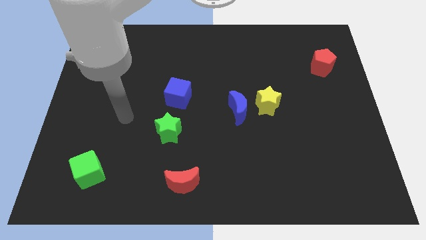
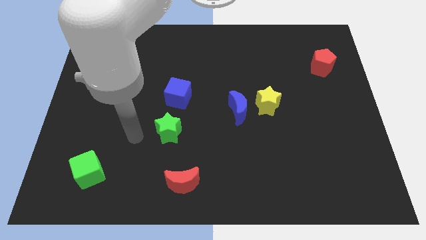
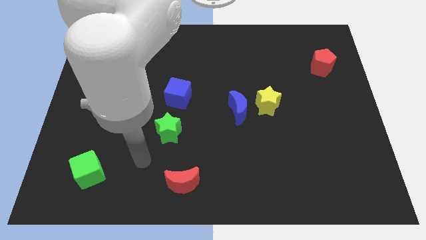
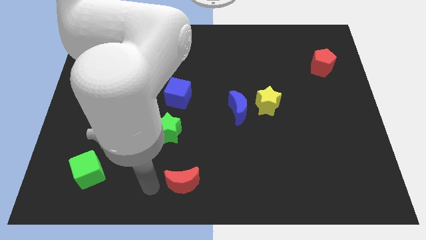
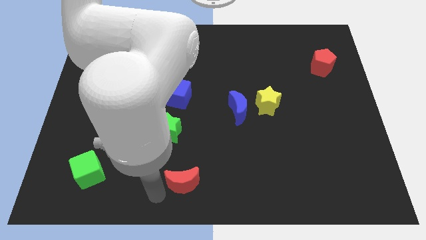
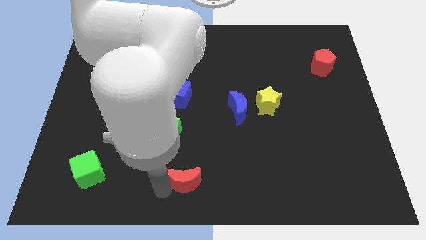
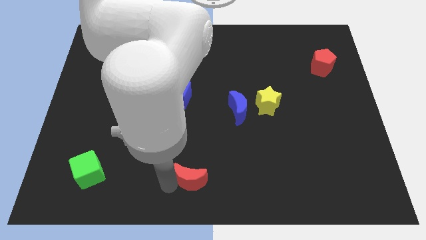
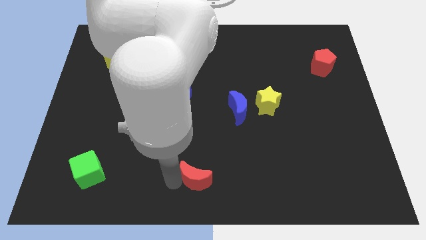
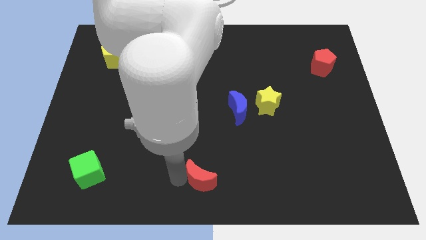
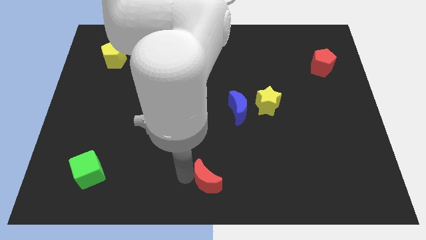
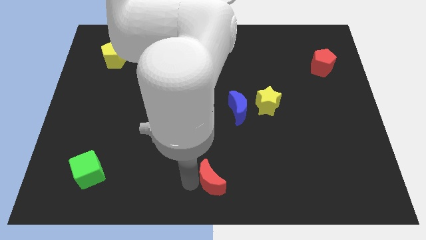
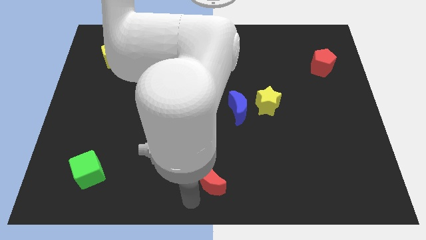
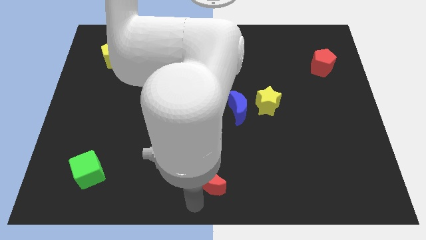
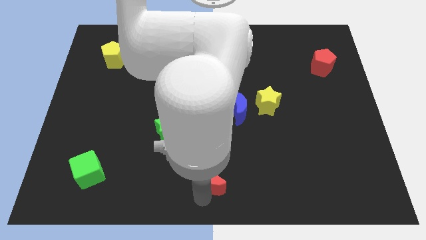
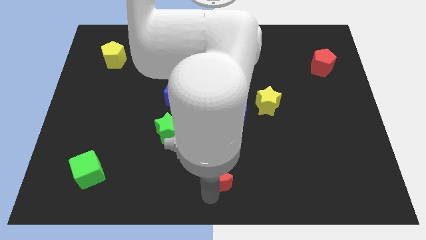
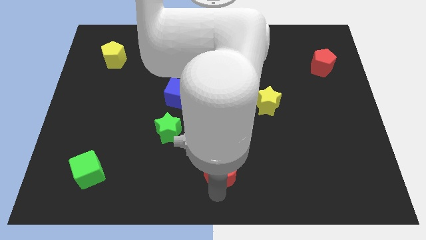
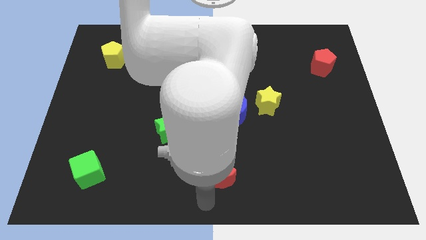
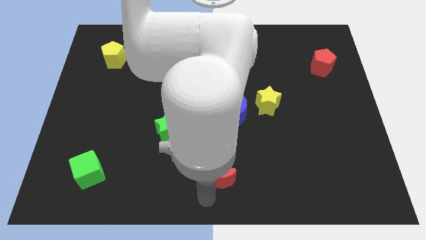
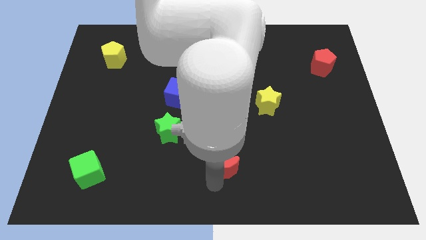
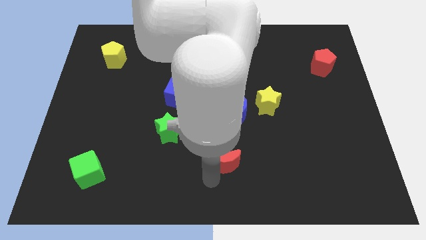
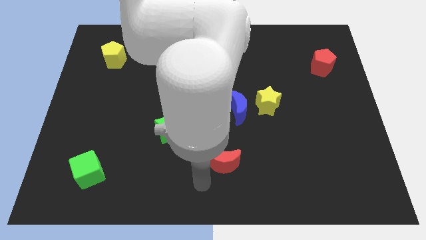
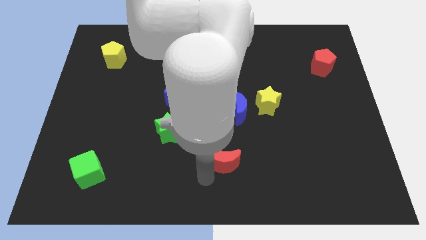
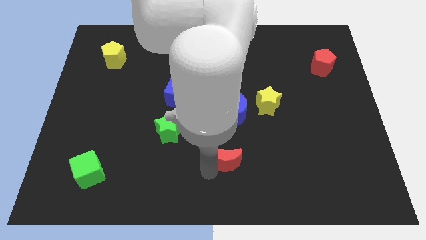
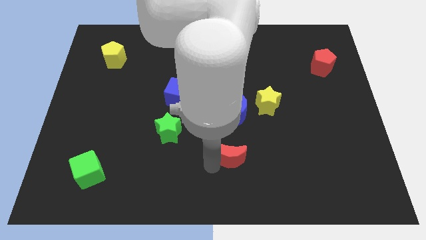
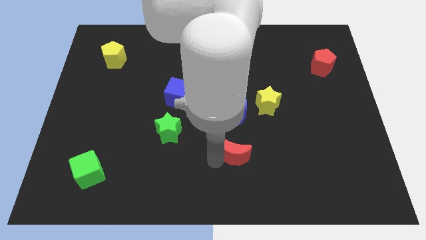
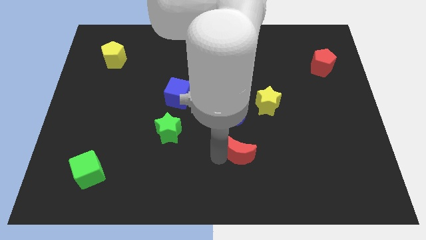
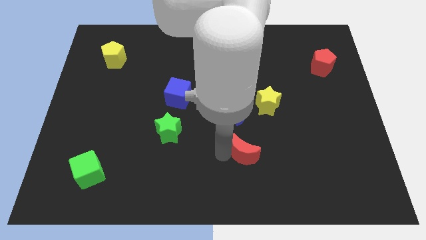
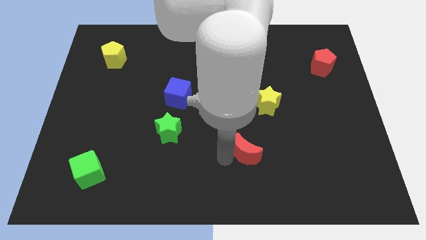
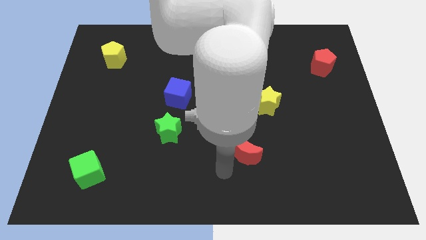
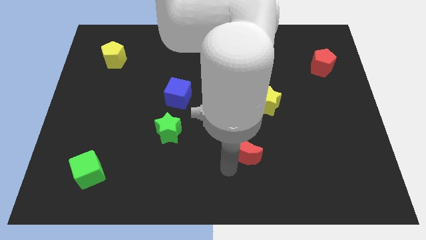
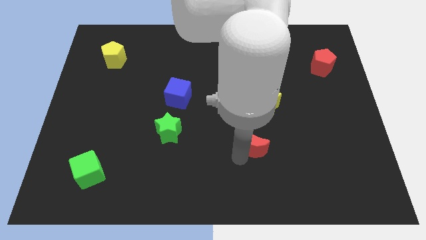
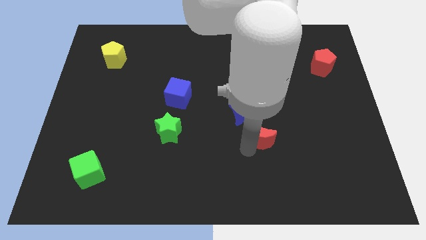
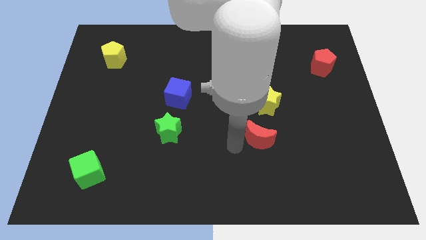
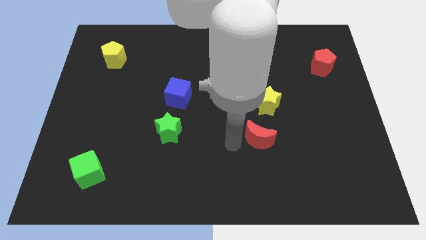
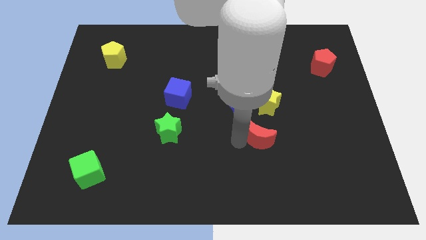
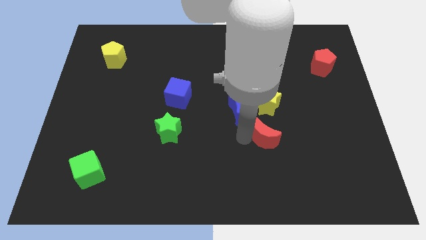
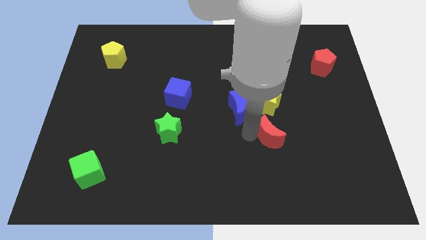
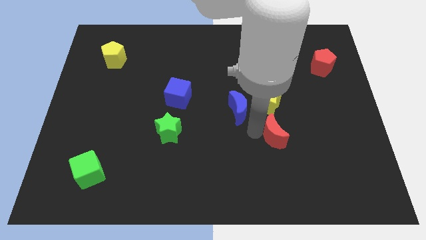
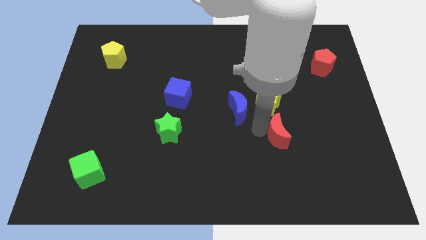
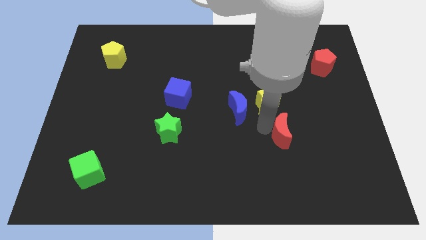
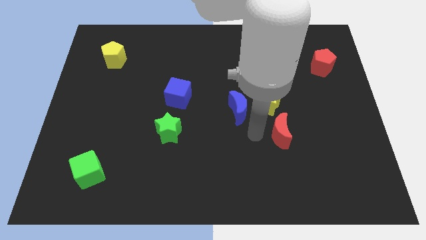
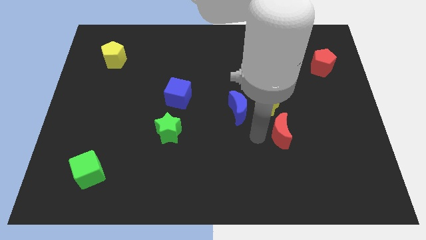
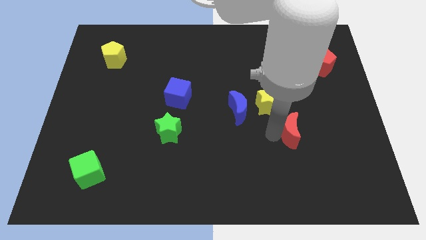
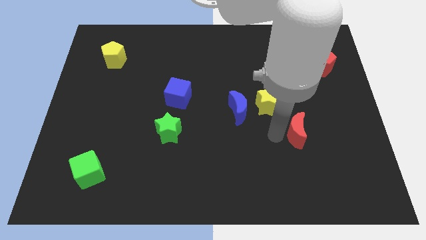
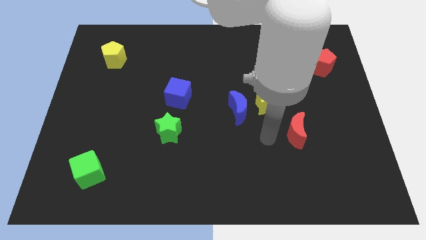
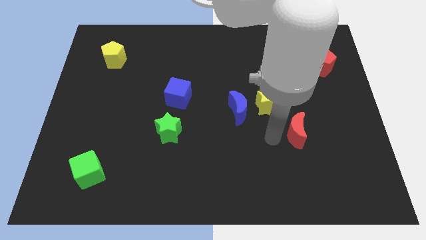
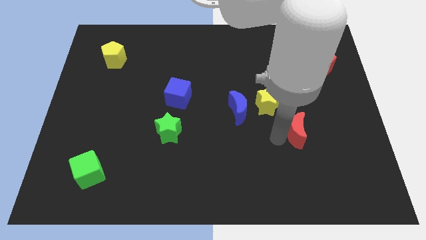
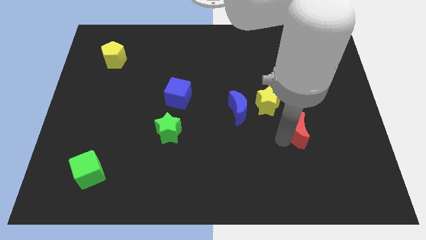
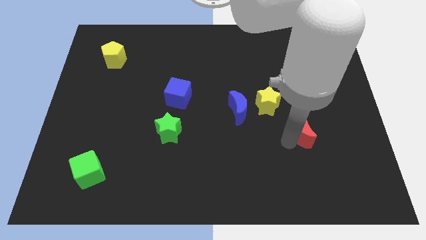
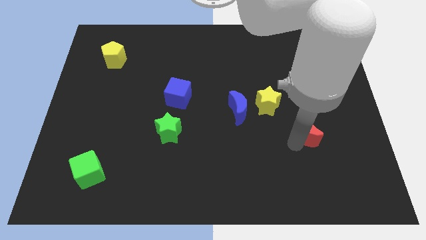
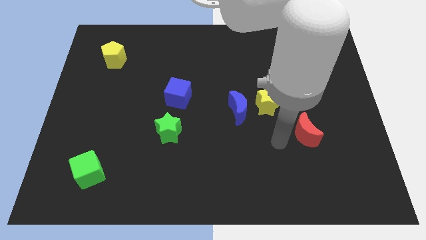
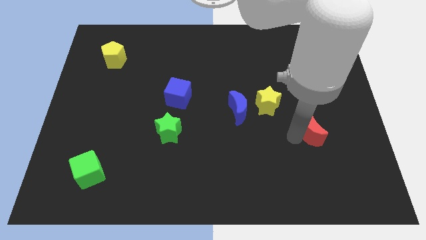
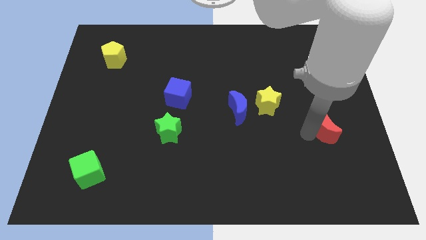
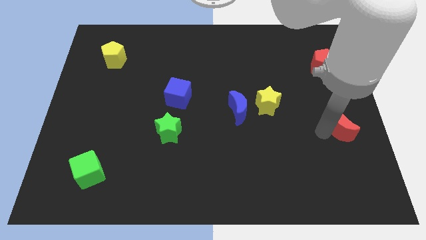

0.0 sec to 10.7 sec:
slide the red moon to the right side of the board

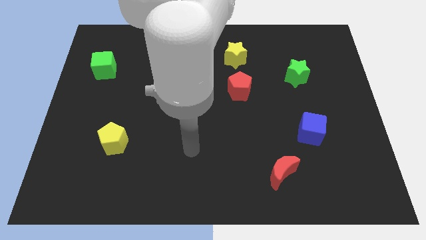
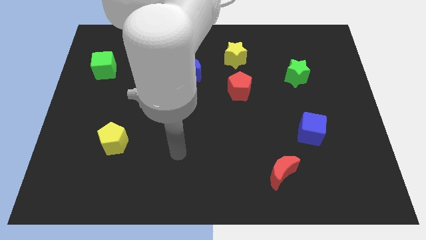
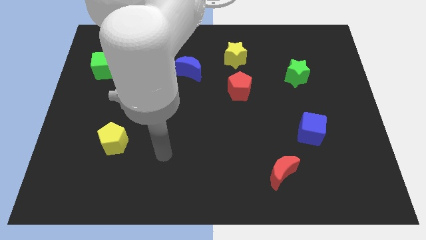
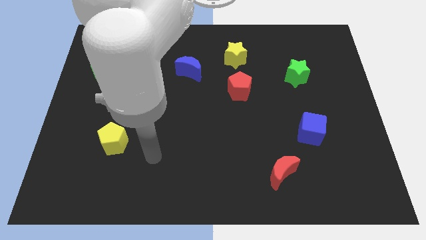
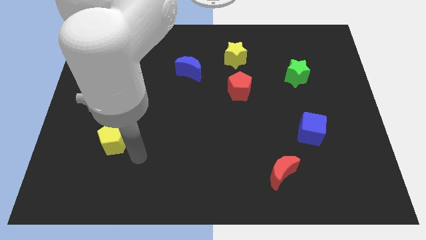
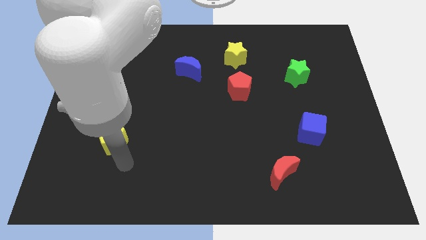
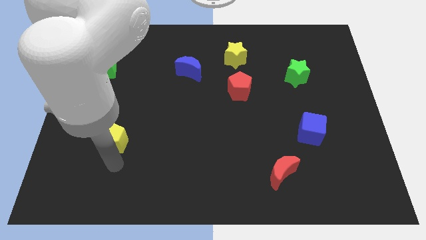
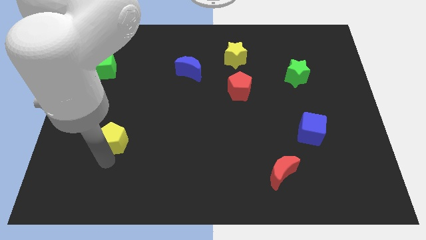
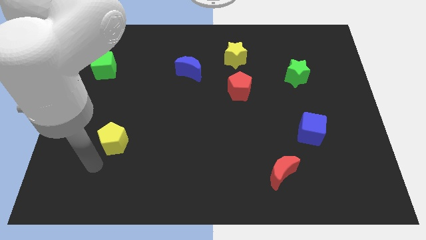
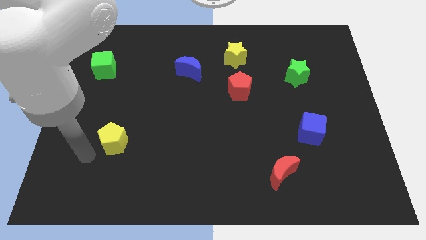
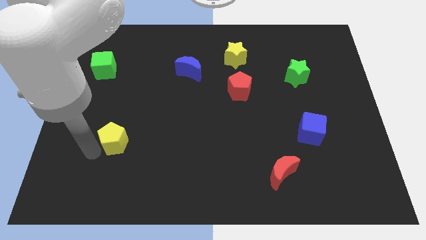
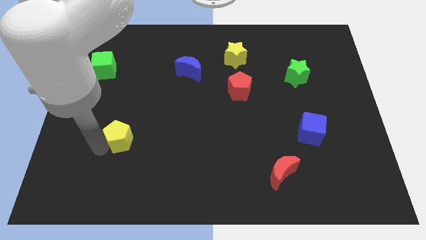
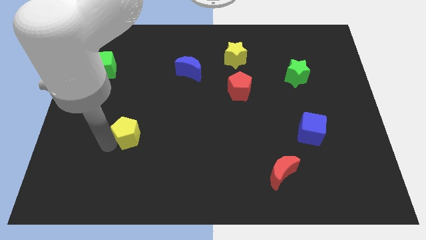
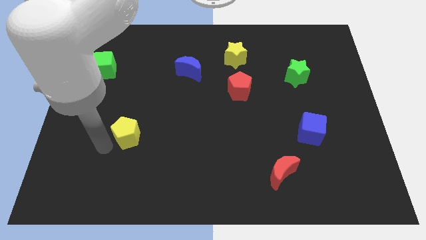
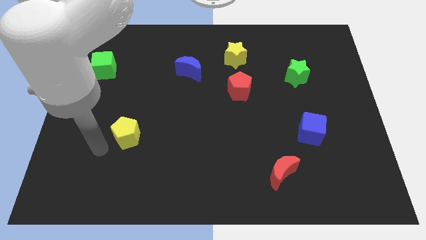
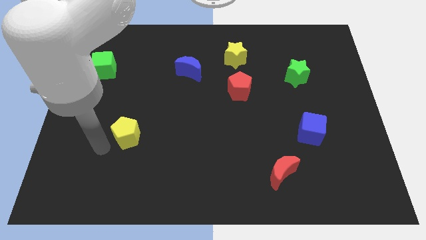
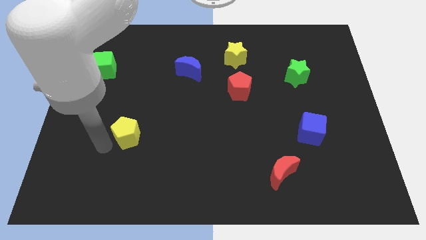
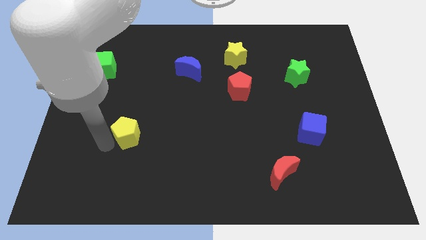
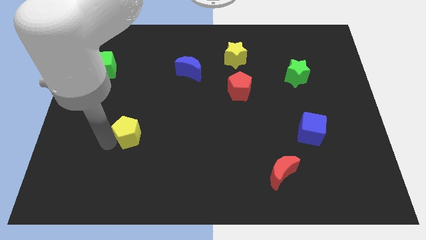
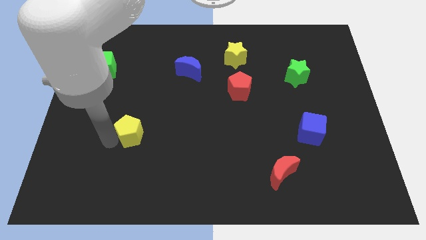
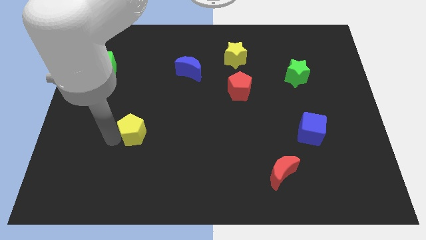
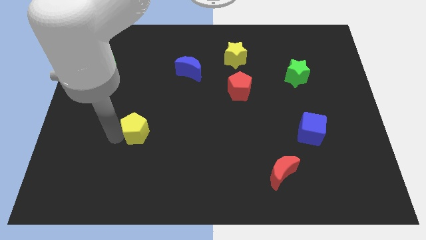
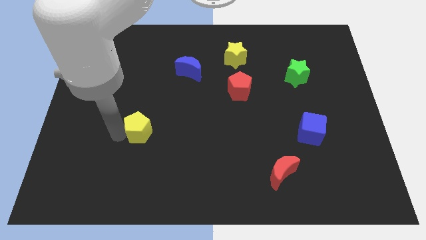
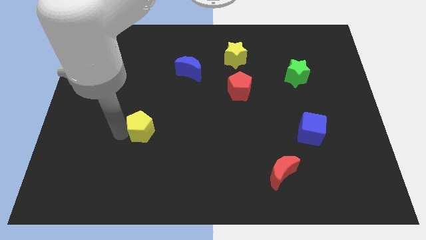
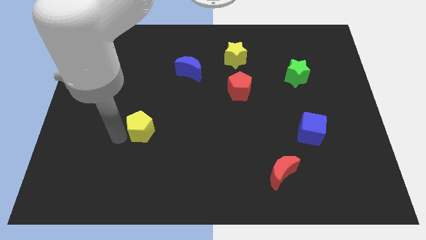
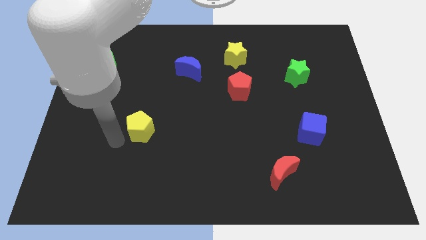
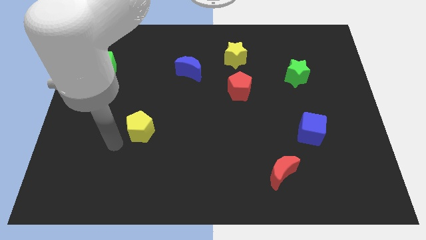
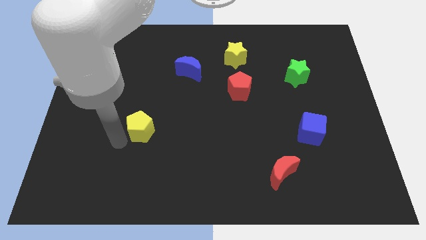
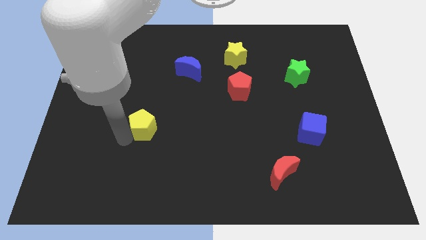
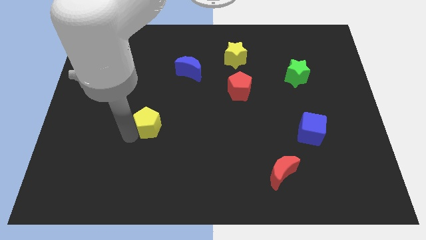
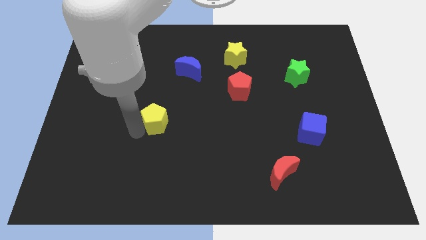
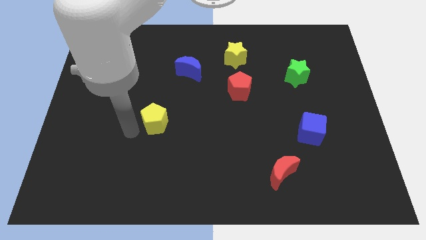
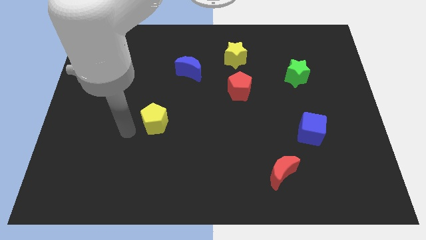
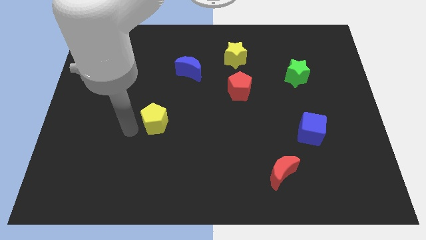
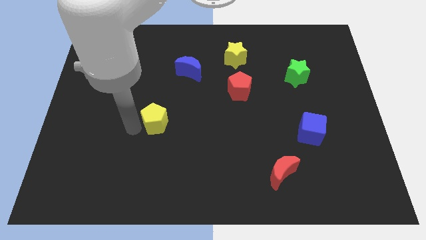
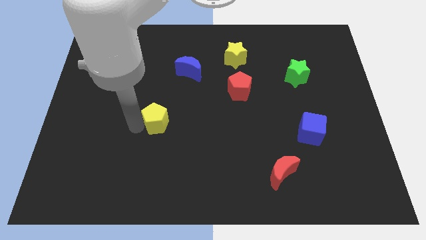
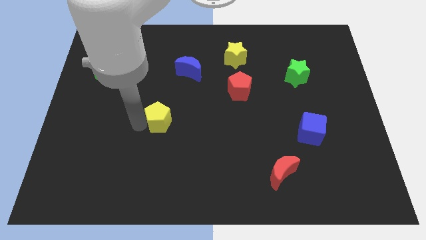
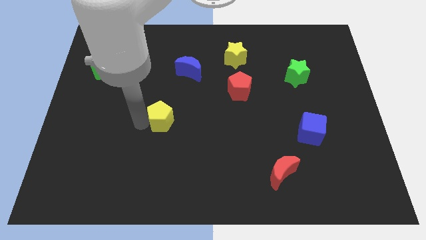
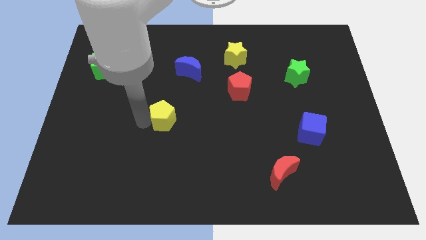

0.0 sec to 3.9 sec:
push the yellow pentagon to the center of the board
